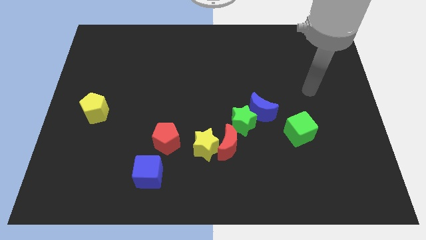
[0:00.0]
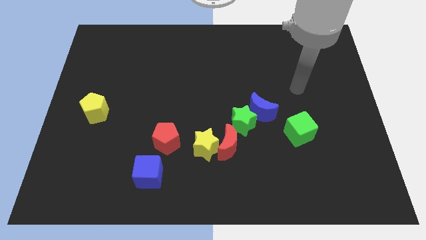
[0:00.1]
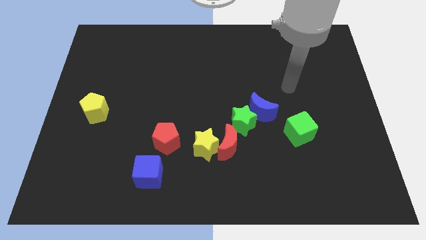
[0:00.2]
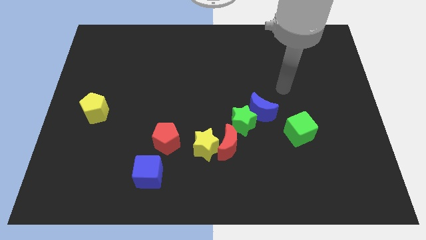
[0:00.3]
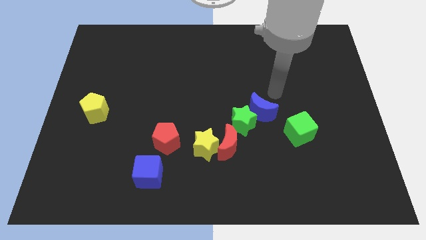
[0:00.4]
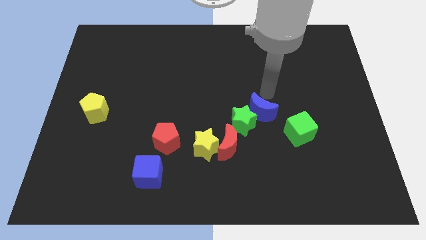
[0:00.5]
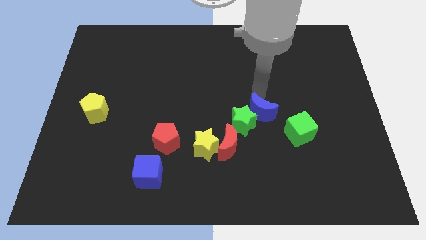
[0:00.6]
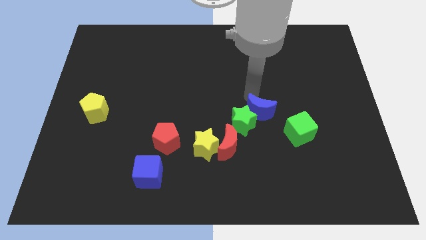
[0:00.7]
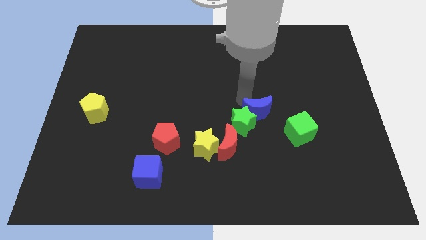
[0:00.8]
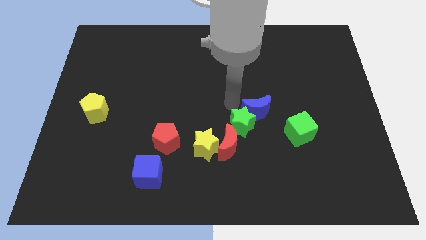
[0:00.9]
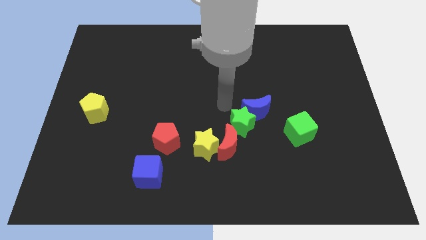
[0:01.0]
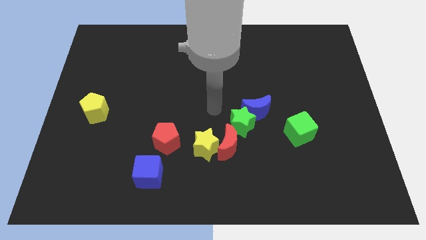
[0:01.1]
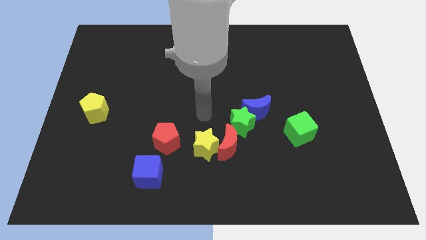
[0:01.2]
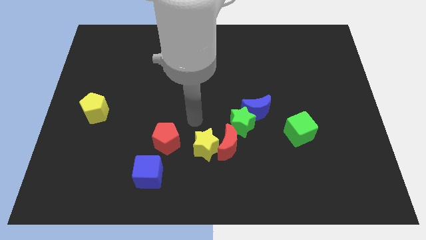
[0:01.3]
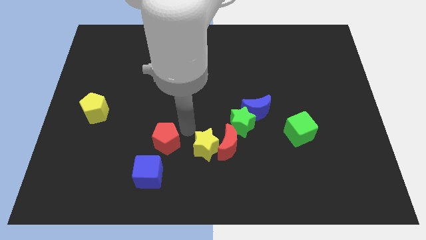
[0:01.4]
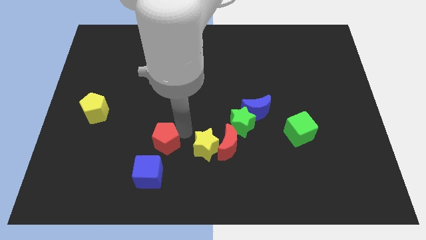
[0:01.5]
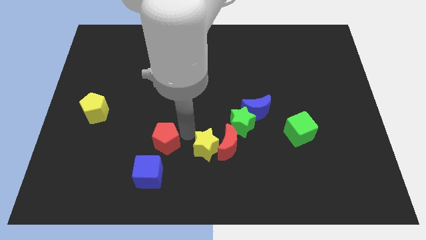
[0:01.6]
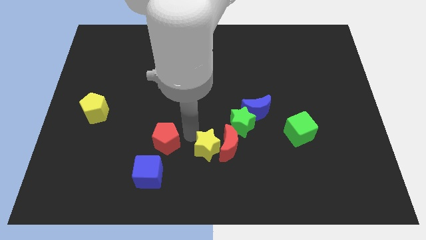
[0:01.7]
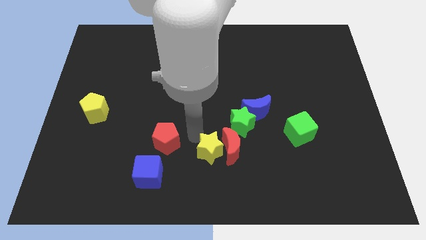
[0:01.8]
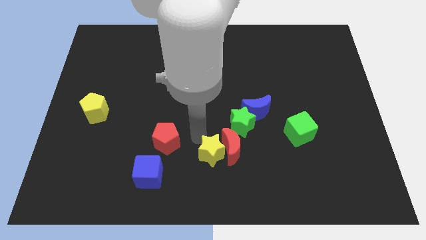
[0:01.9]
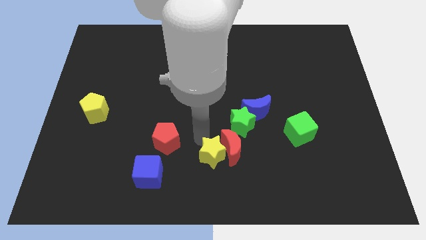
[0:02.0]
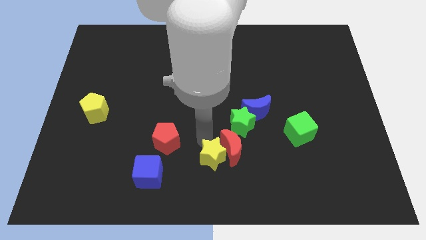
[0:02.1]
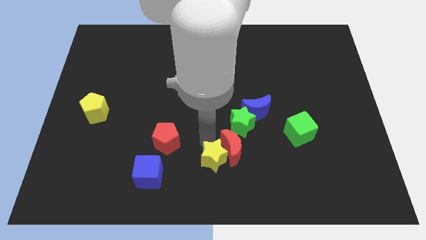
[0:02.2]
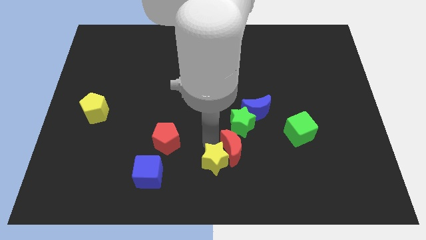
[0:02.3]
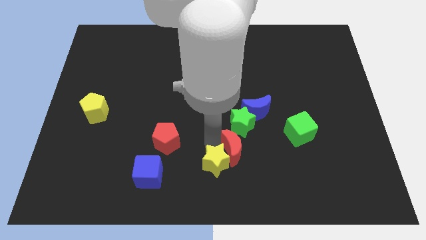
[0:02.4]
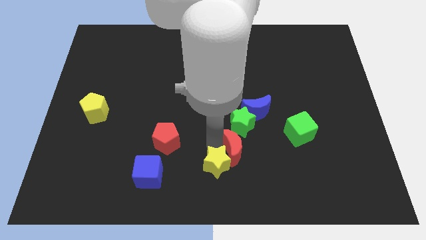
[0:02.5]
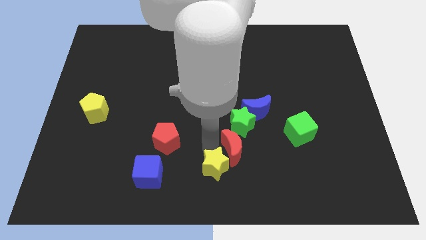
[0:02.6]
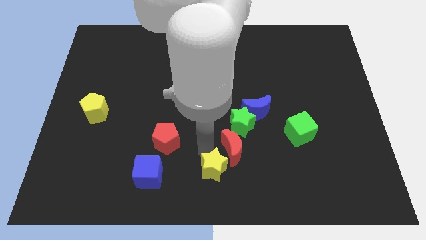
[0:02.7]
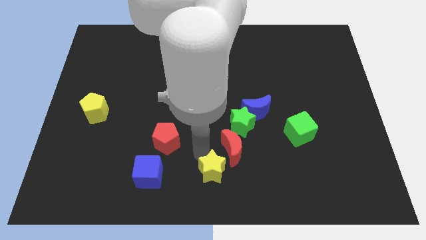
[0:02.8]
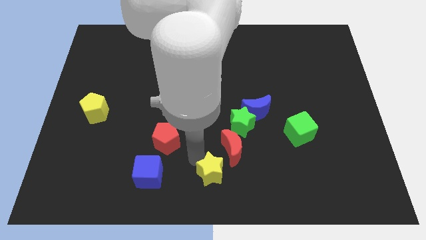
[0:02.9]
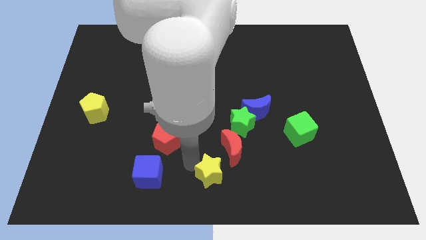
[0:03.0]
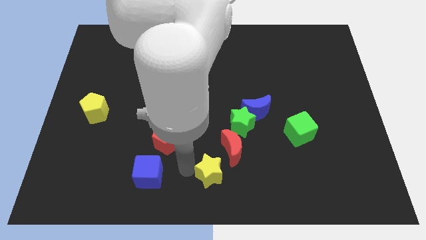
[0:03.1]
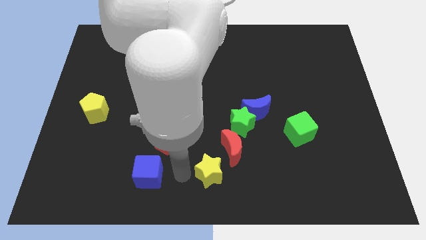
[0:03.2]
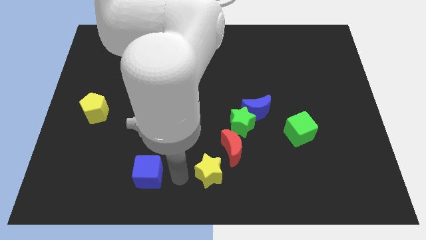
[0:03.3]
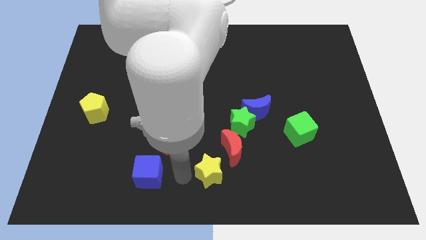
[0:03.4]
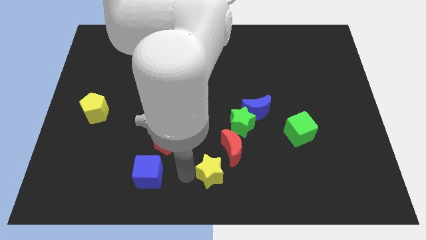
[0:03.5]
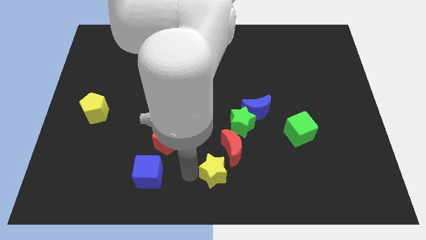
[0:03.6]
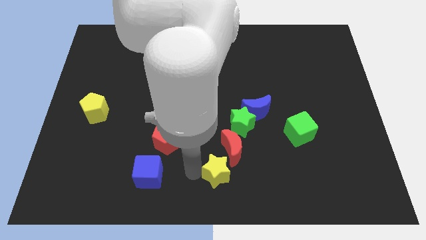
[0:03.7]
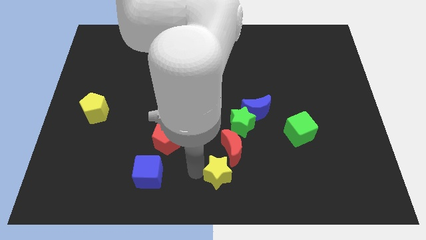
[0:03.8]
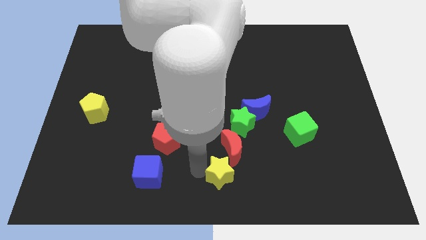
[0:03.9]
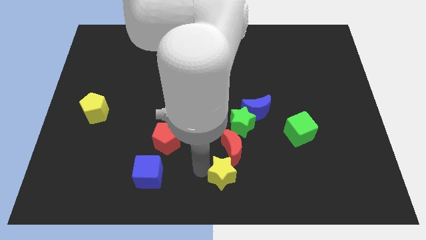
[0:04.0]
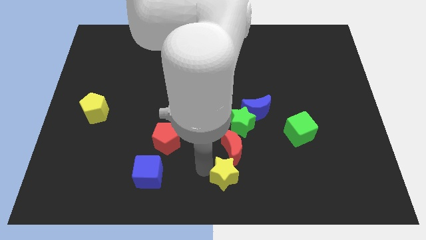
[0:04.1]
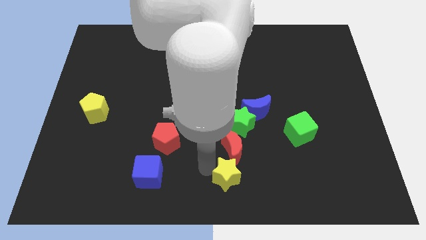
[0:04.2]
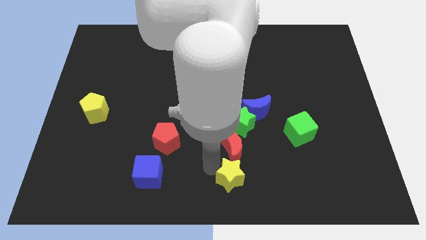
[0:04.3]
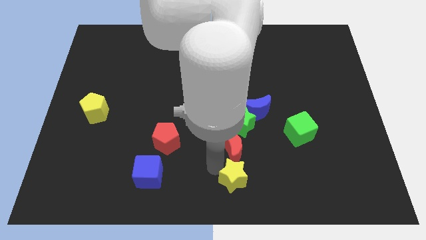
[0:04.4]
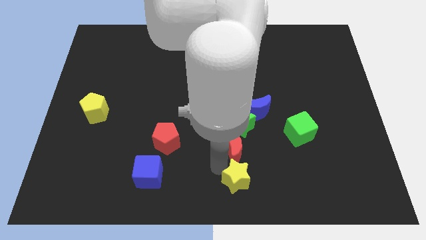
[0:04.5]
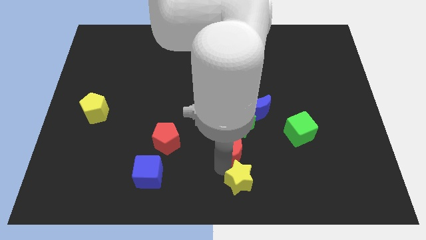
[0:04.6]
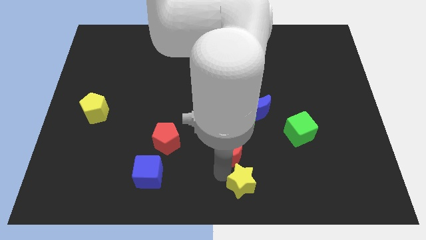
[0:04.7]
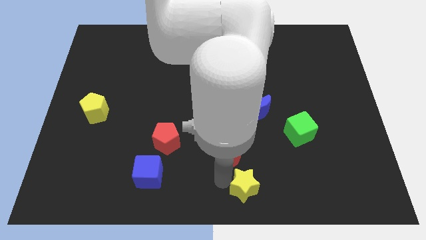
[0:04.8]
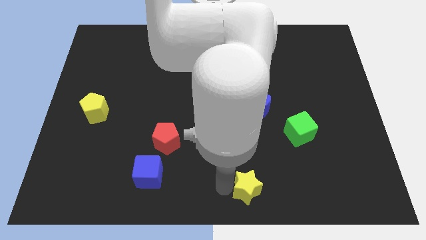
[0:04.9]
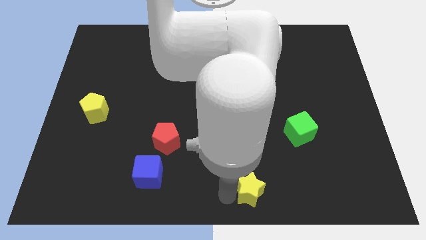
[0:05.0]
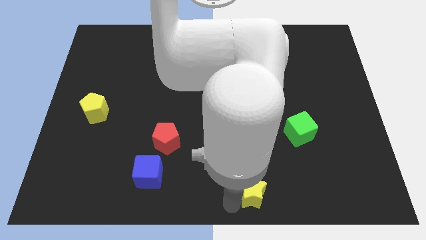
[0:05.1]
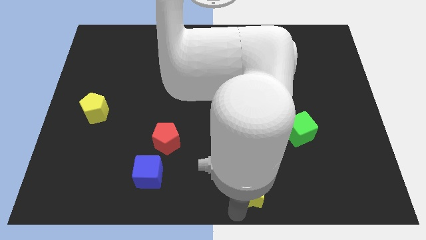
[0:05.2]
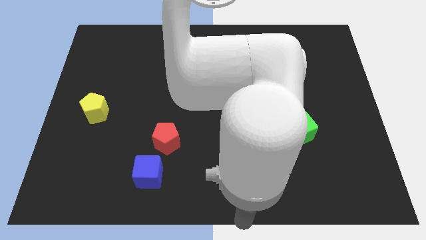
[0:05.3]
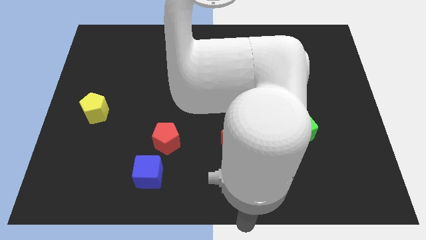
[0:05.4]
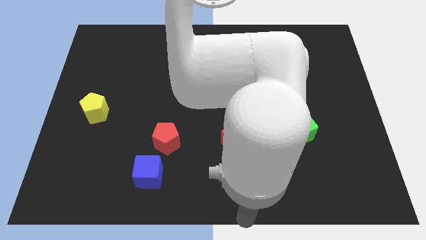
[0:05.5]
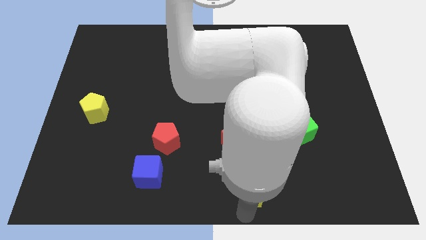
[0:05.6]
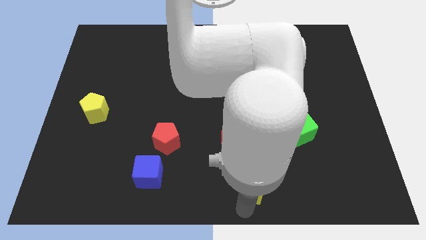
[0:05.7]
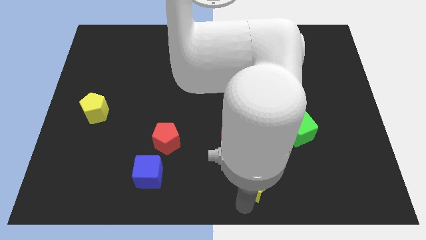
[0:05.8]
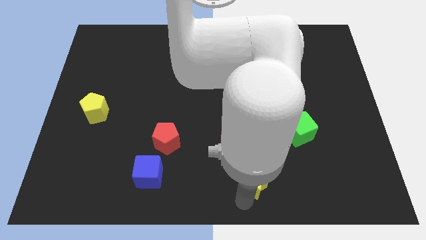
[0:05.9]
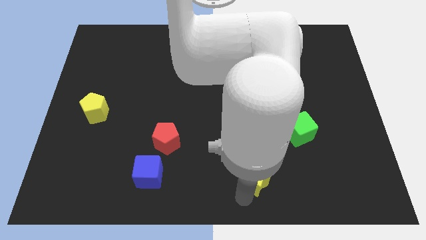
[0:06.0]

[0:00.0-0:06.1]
push the yellow star right a bit

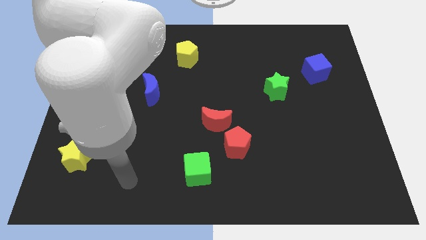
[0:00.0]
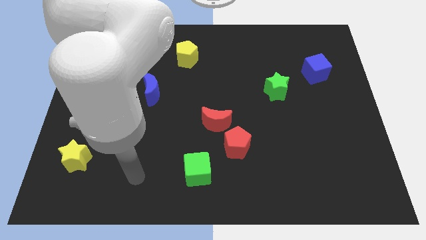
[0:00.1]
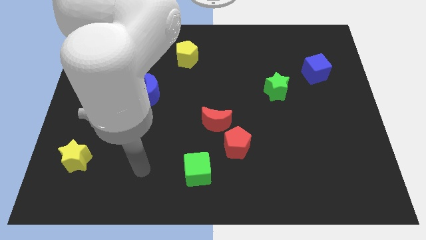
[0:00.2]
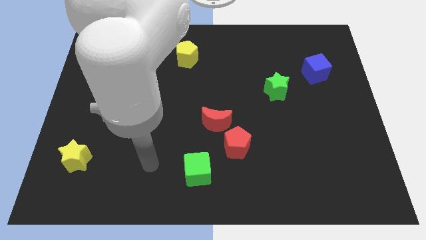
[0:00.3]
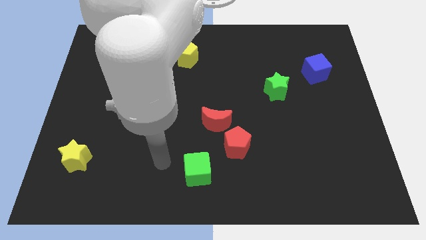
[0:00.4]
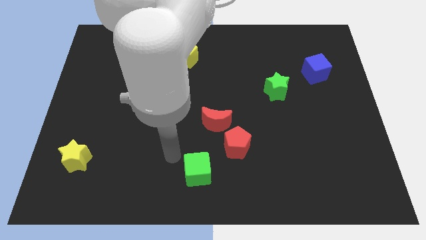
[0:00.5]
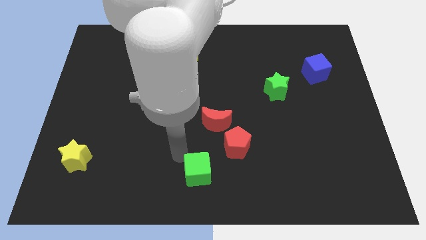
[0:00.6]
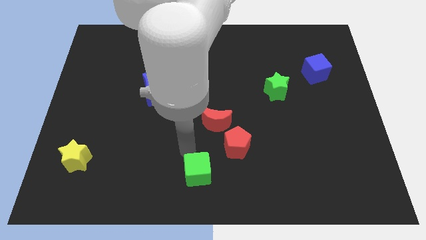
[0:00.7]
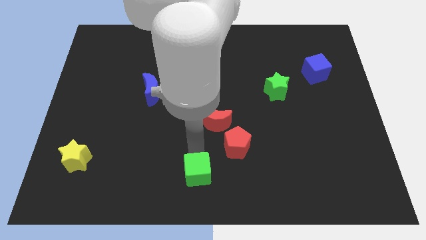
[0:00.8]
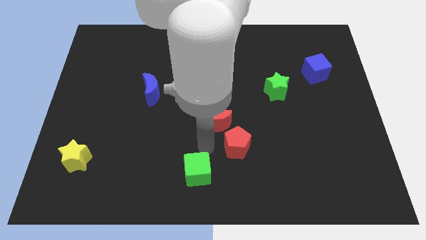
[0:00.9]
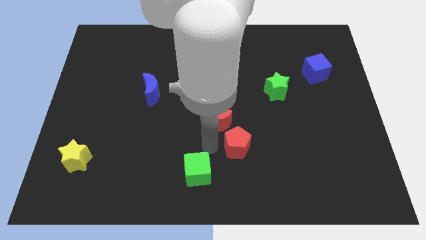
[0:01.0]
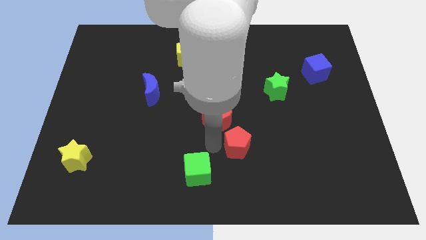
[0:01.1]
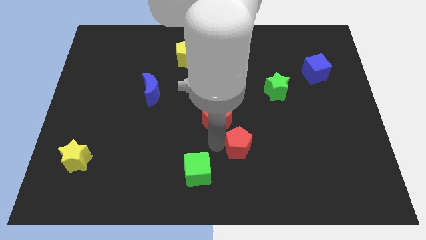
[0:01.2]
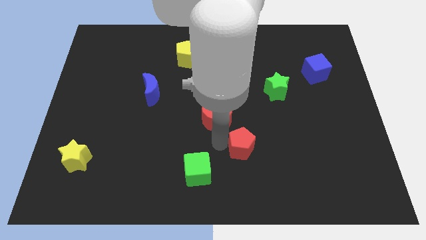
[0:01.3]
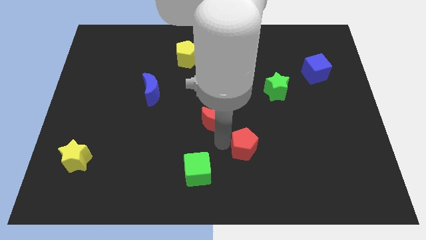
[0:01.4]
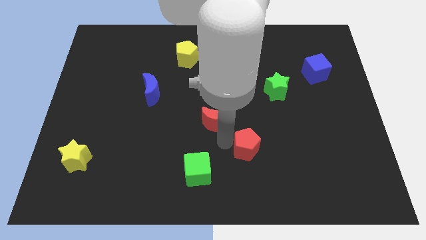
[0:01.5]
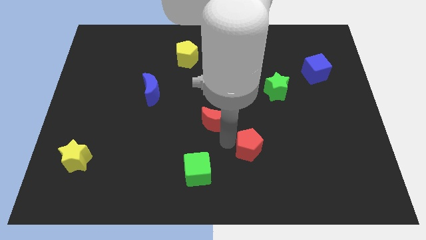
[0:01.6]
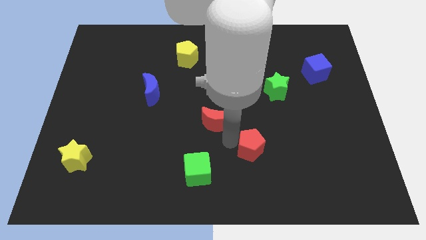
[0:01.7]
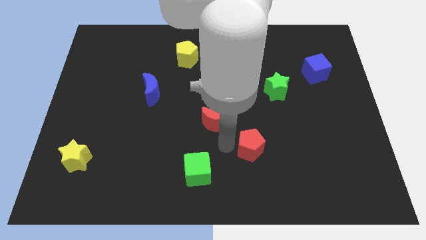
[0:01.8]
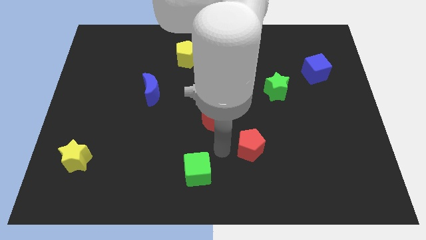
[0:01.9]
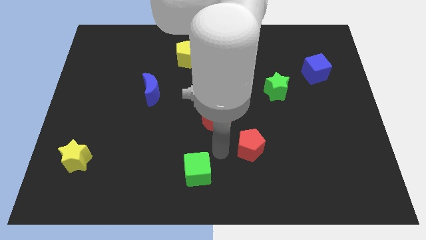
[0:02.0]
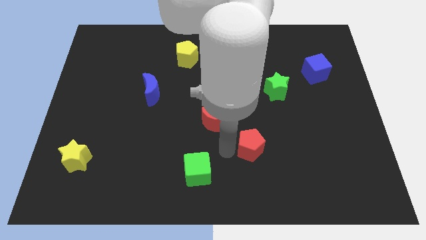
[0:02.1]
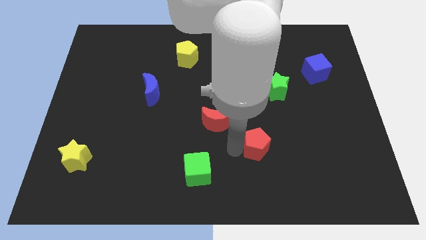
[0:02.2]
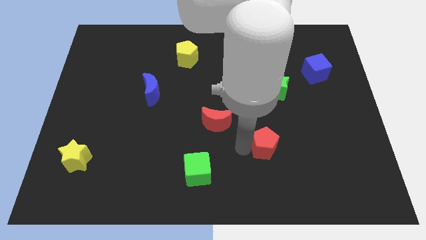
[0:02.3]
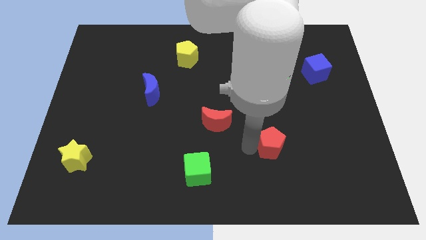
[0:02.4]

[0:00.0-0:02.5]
slide the red pentagon a little to the right
